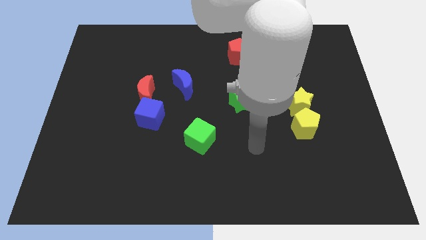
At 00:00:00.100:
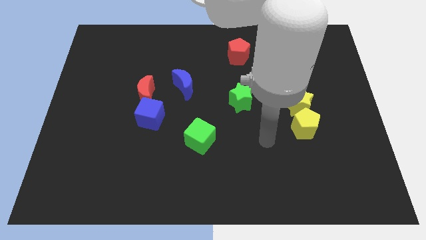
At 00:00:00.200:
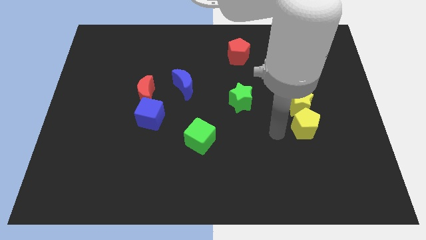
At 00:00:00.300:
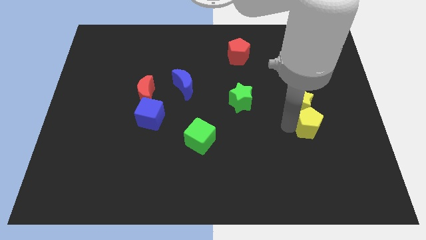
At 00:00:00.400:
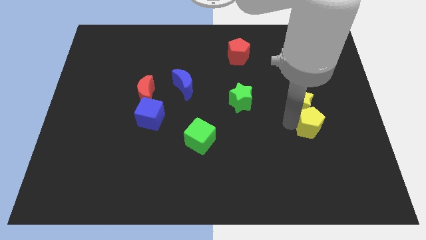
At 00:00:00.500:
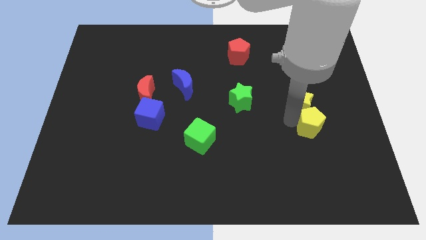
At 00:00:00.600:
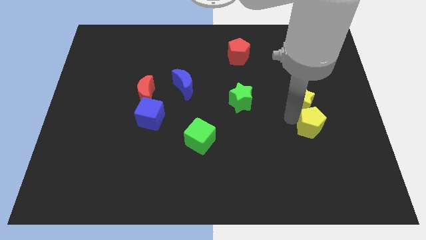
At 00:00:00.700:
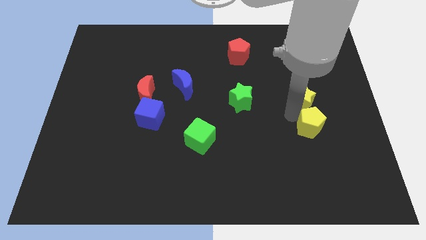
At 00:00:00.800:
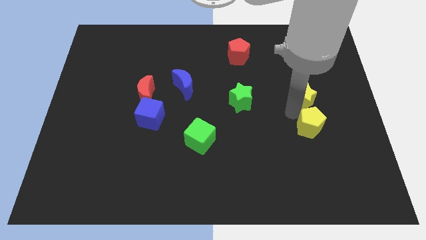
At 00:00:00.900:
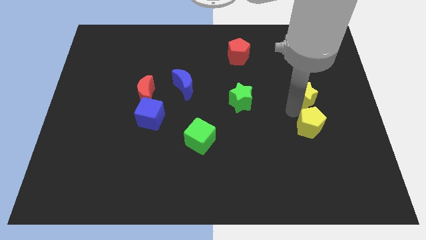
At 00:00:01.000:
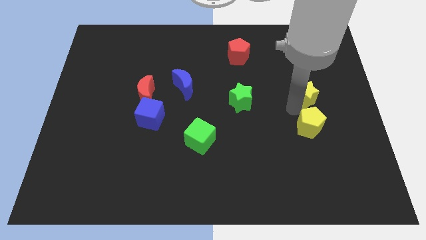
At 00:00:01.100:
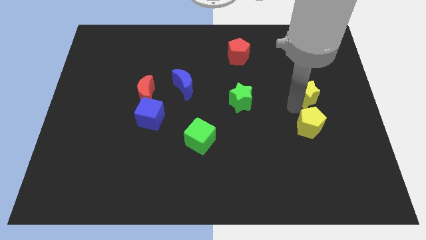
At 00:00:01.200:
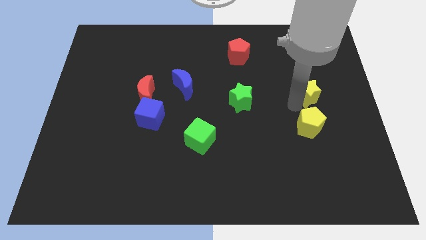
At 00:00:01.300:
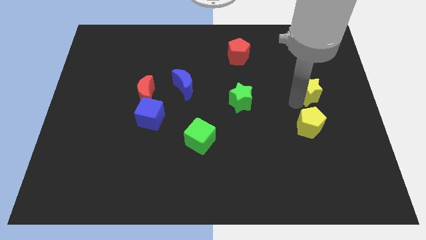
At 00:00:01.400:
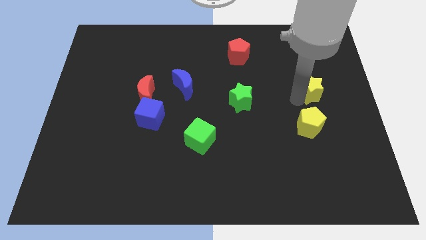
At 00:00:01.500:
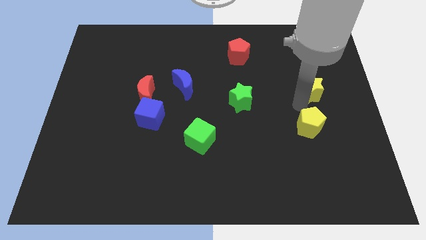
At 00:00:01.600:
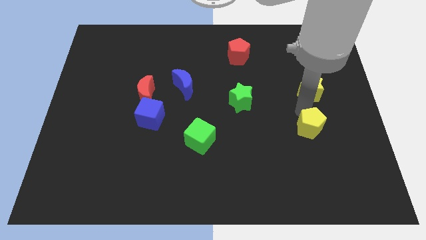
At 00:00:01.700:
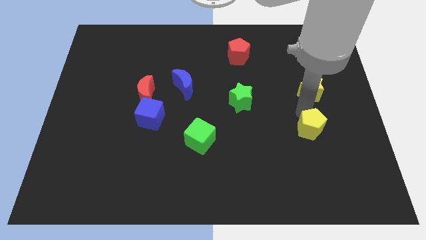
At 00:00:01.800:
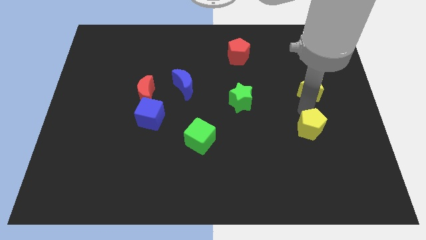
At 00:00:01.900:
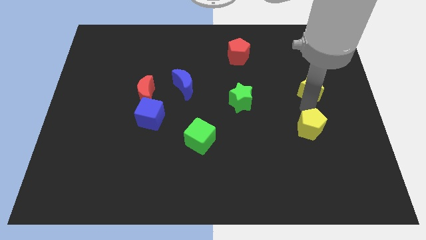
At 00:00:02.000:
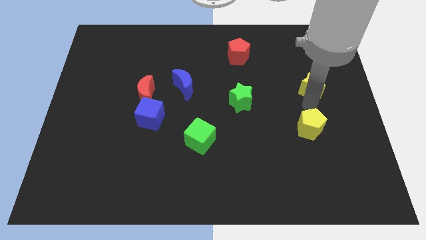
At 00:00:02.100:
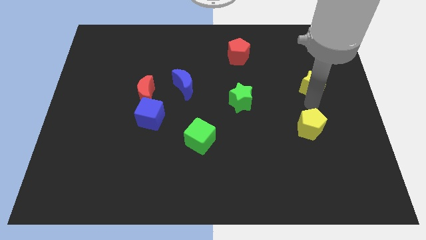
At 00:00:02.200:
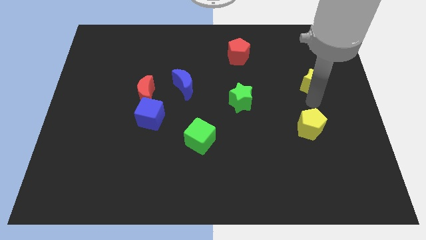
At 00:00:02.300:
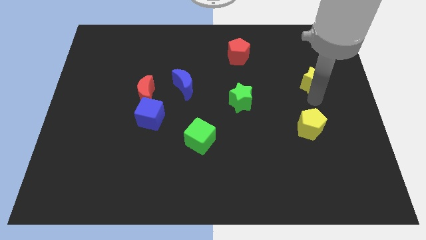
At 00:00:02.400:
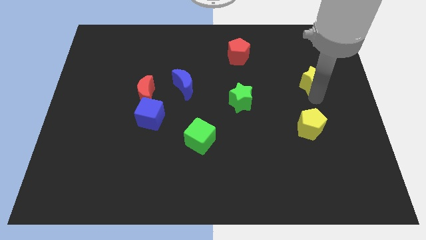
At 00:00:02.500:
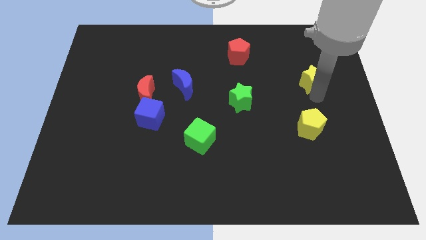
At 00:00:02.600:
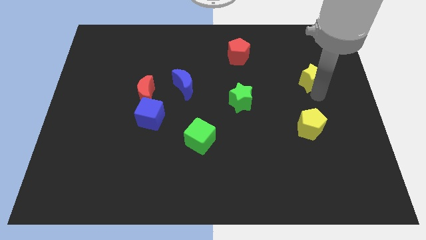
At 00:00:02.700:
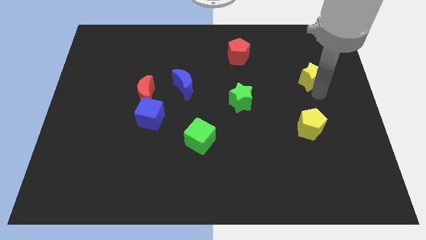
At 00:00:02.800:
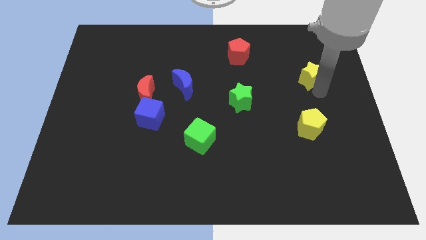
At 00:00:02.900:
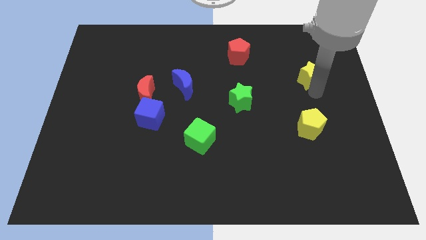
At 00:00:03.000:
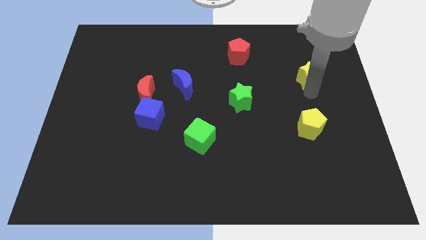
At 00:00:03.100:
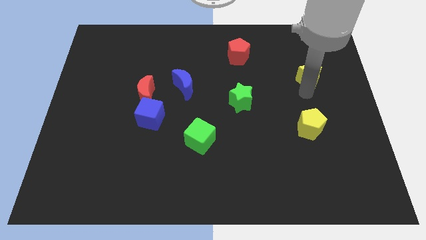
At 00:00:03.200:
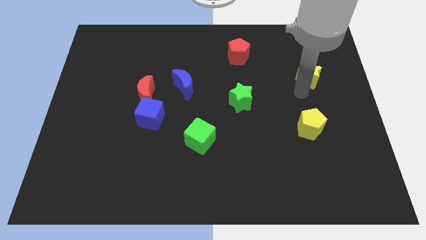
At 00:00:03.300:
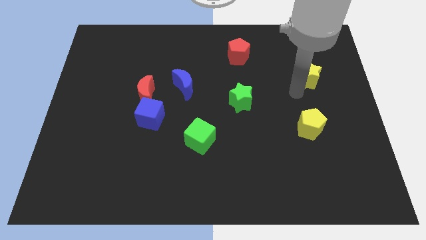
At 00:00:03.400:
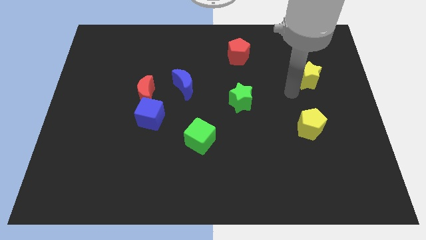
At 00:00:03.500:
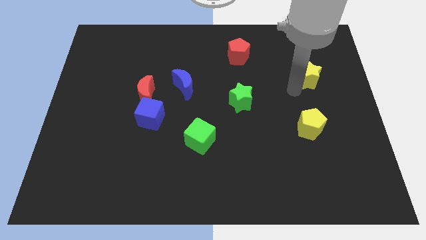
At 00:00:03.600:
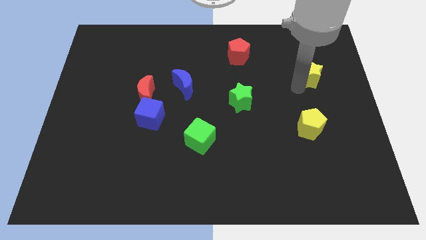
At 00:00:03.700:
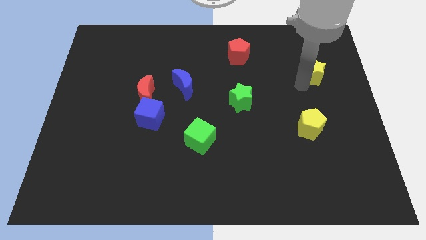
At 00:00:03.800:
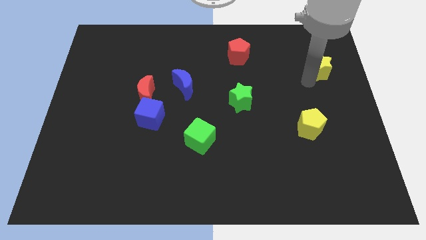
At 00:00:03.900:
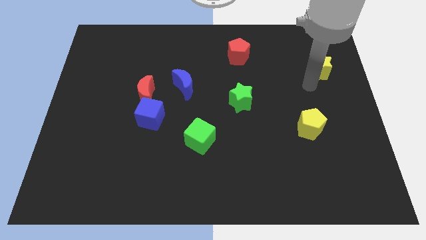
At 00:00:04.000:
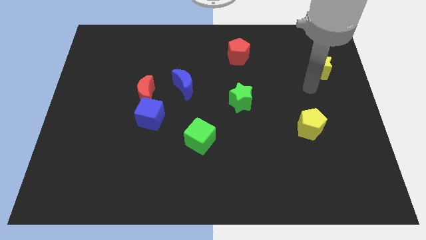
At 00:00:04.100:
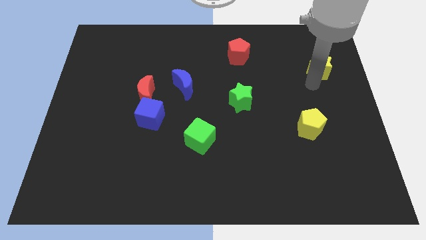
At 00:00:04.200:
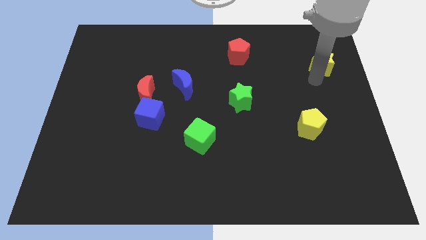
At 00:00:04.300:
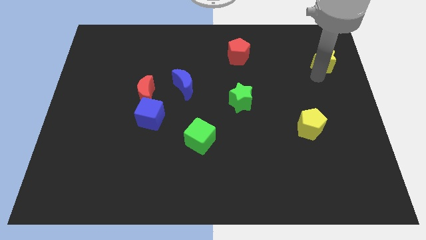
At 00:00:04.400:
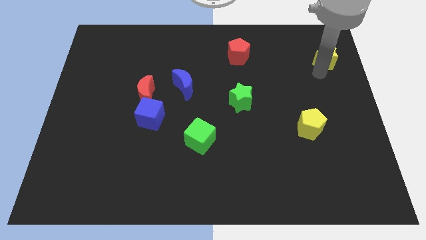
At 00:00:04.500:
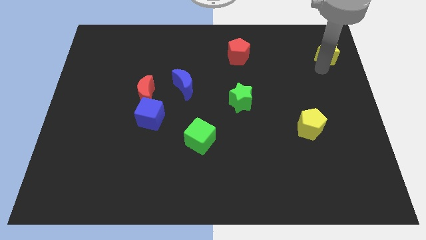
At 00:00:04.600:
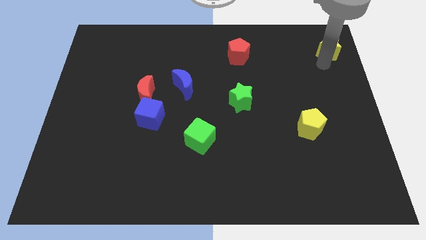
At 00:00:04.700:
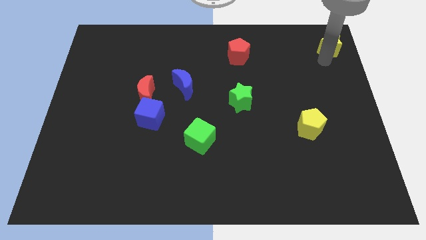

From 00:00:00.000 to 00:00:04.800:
move the yellow star to the top right of the board

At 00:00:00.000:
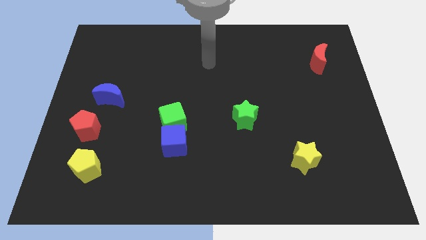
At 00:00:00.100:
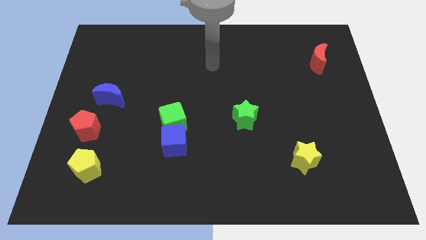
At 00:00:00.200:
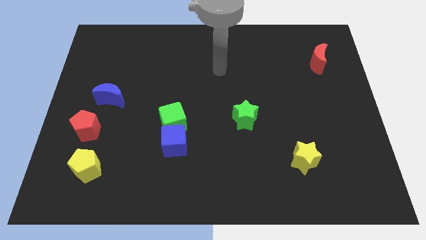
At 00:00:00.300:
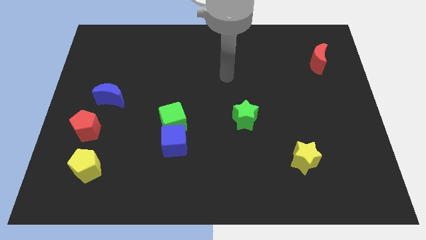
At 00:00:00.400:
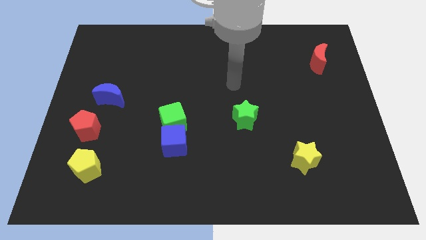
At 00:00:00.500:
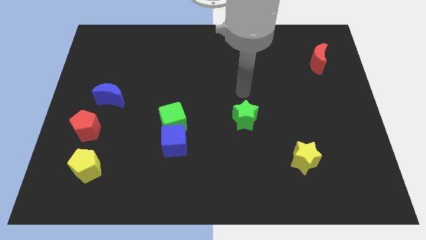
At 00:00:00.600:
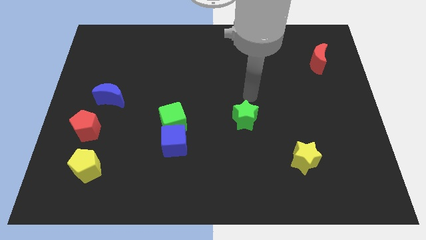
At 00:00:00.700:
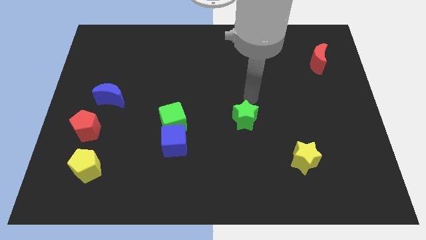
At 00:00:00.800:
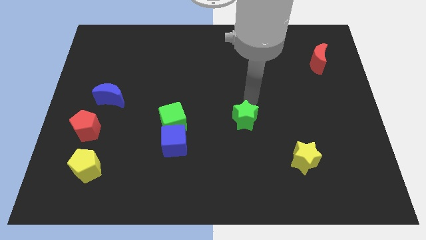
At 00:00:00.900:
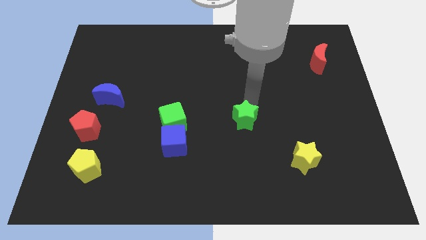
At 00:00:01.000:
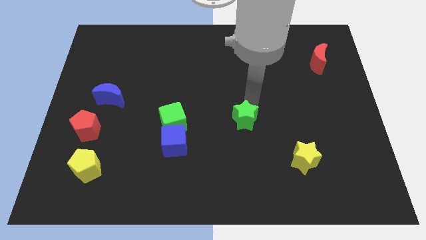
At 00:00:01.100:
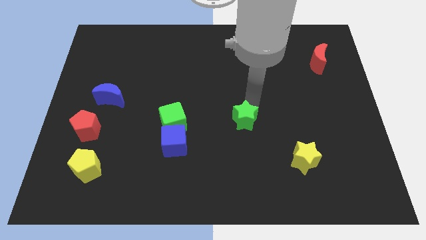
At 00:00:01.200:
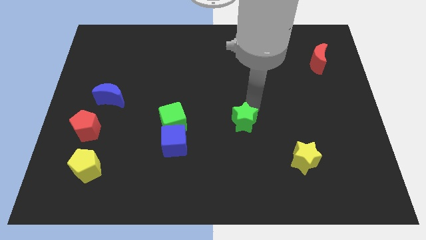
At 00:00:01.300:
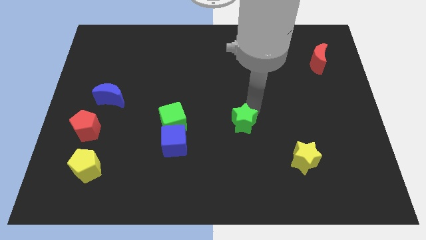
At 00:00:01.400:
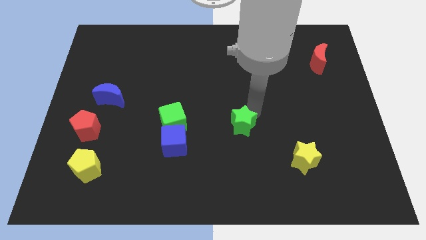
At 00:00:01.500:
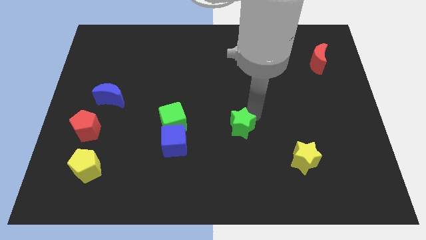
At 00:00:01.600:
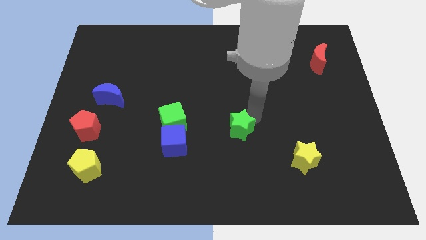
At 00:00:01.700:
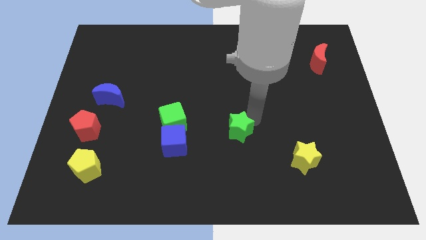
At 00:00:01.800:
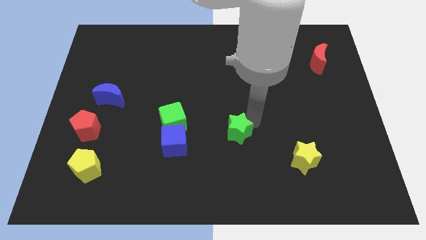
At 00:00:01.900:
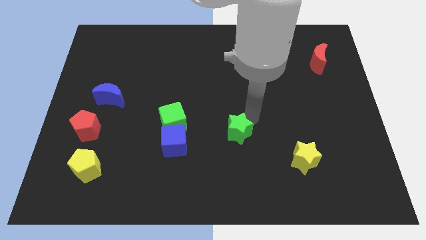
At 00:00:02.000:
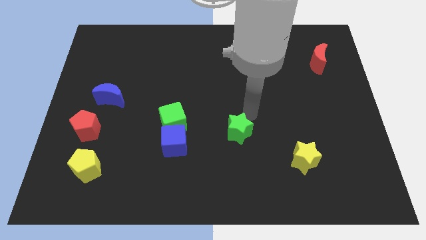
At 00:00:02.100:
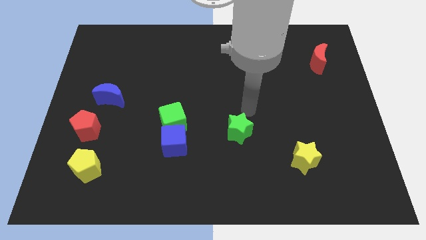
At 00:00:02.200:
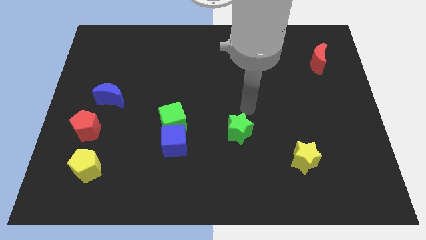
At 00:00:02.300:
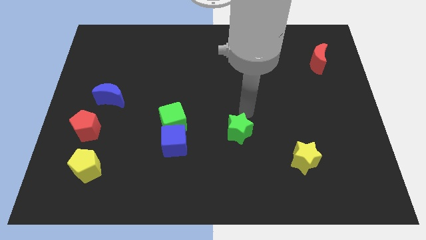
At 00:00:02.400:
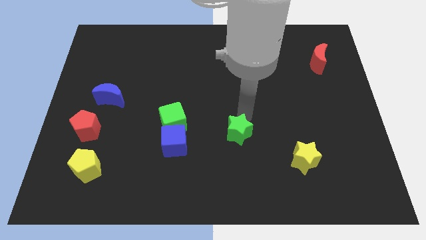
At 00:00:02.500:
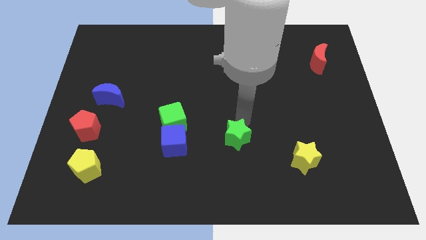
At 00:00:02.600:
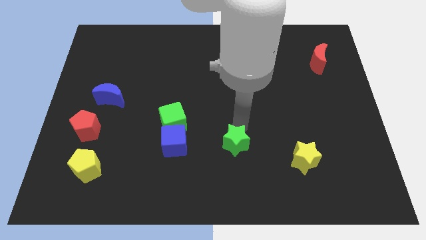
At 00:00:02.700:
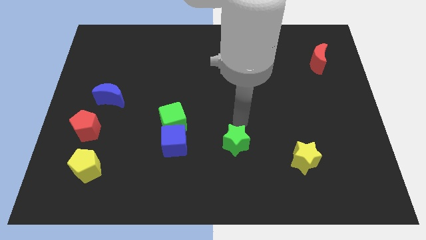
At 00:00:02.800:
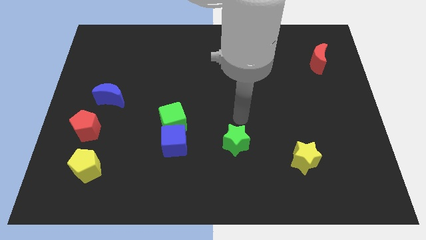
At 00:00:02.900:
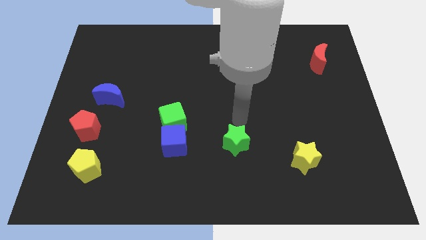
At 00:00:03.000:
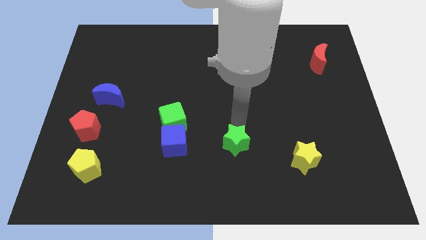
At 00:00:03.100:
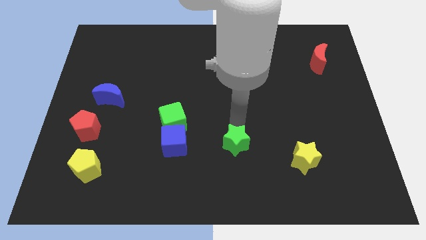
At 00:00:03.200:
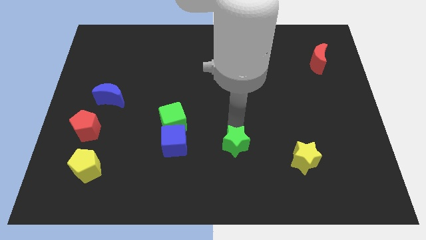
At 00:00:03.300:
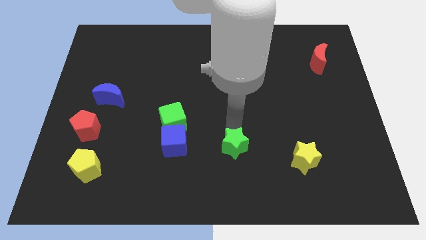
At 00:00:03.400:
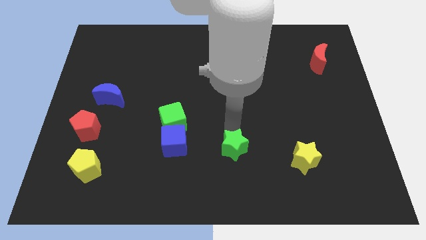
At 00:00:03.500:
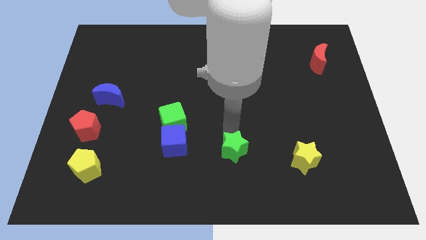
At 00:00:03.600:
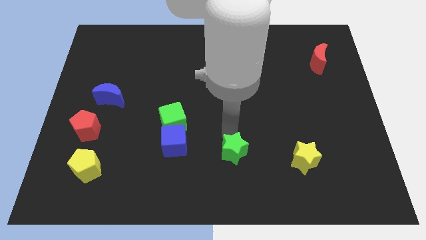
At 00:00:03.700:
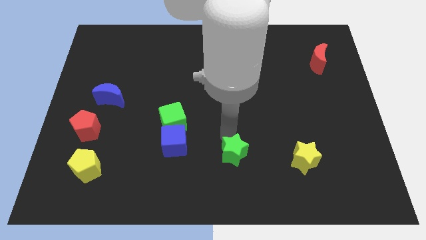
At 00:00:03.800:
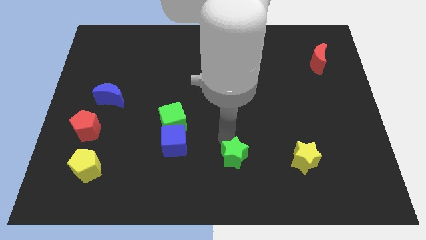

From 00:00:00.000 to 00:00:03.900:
put the green star to the bottom
